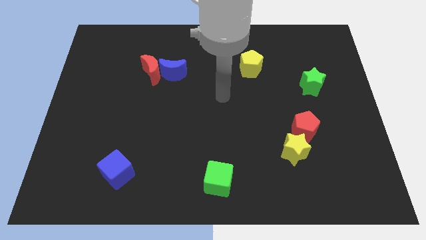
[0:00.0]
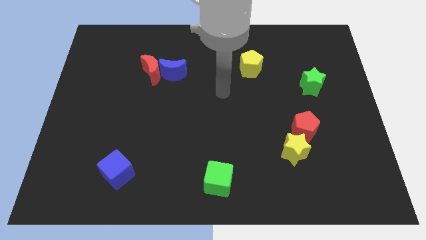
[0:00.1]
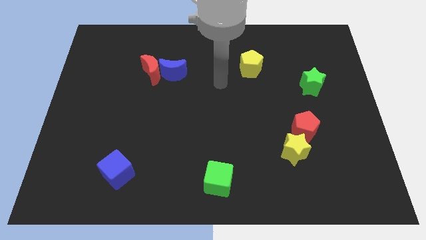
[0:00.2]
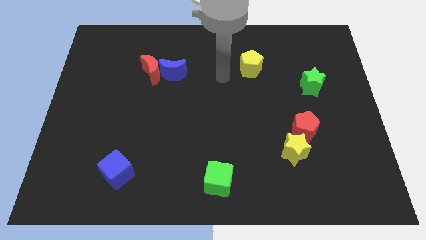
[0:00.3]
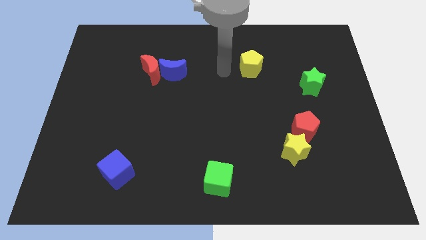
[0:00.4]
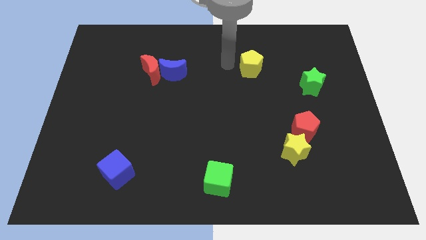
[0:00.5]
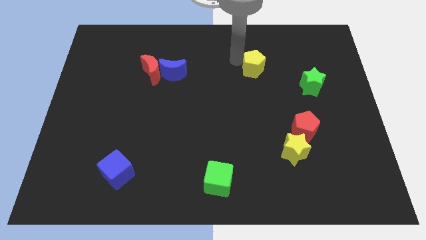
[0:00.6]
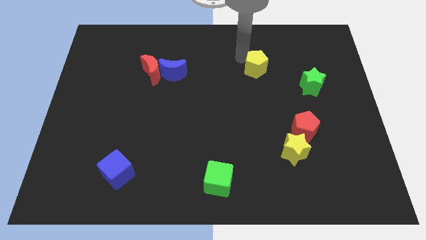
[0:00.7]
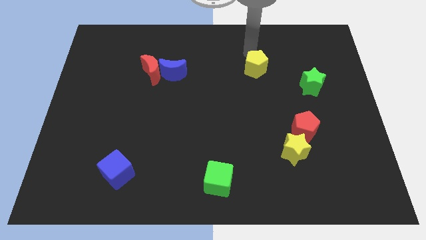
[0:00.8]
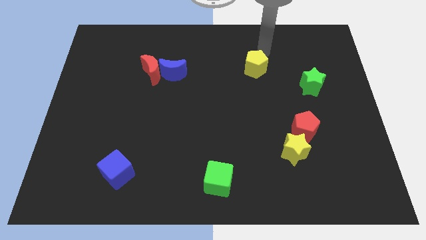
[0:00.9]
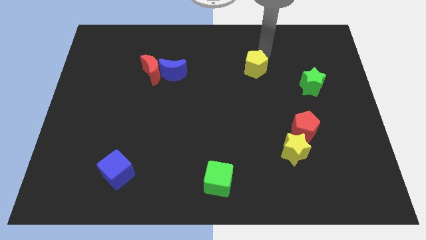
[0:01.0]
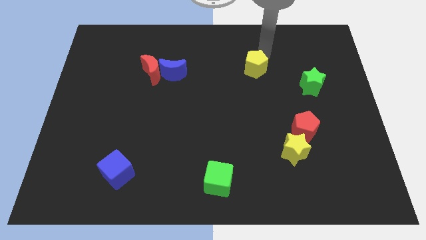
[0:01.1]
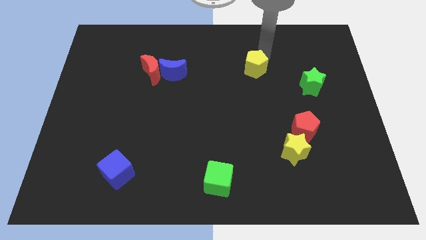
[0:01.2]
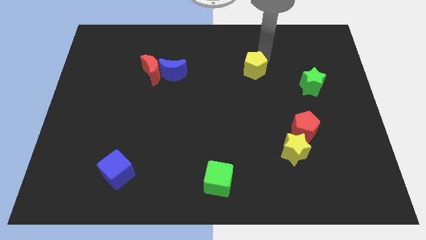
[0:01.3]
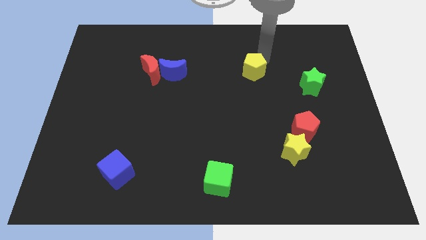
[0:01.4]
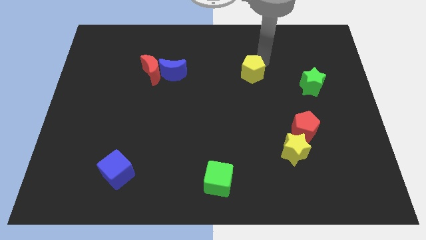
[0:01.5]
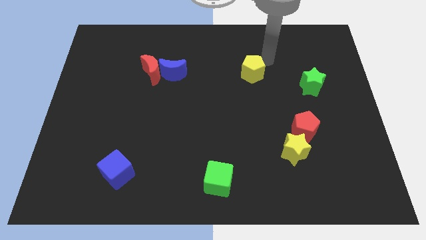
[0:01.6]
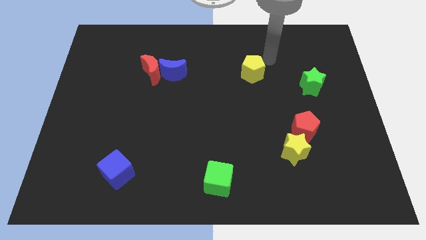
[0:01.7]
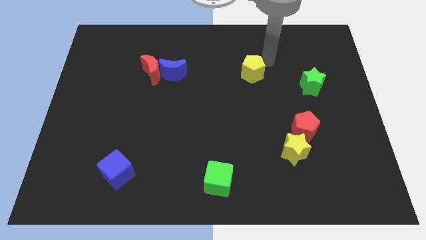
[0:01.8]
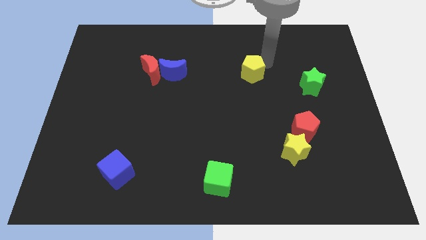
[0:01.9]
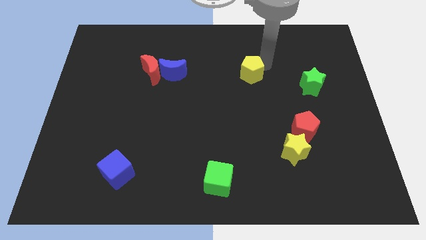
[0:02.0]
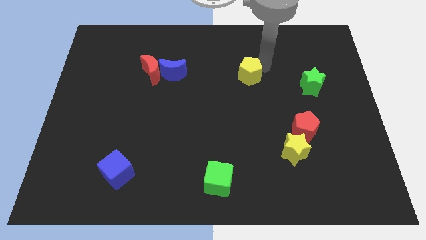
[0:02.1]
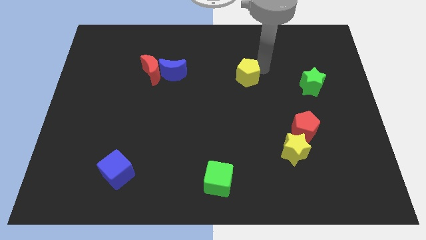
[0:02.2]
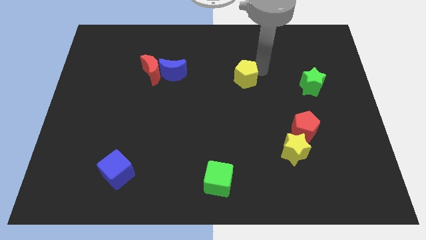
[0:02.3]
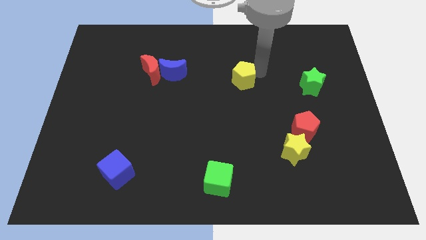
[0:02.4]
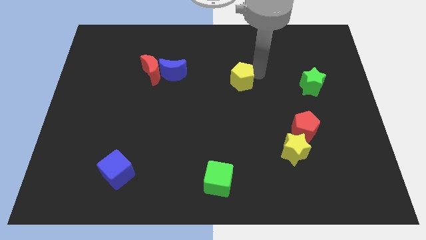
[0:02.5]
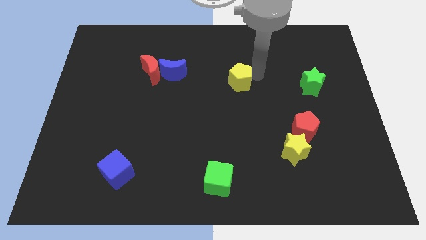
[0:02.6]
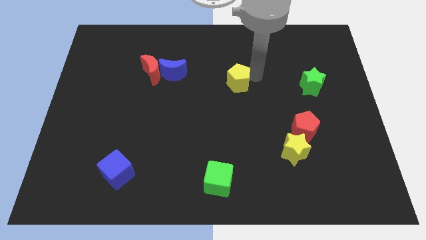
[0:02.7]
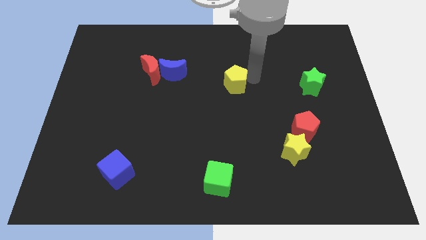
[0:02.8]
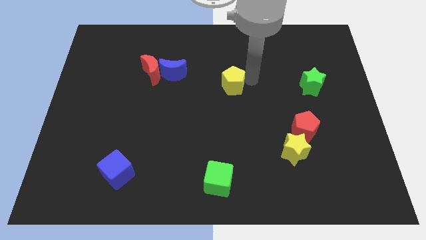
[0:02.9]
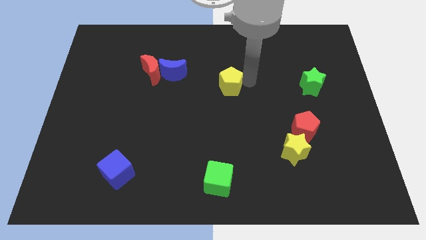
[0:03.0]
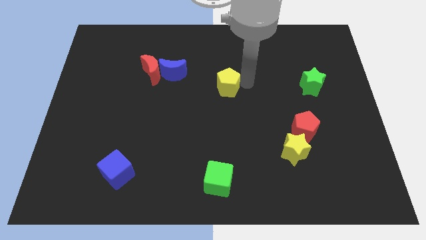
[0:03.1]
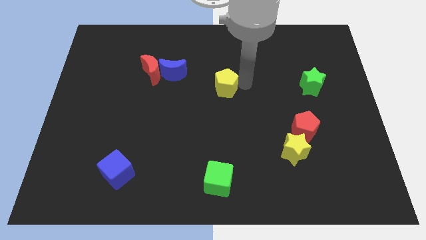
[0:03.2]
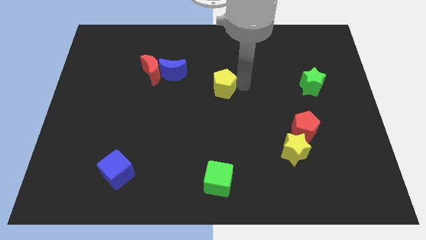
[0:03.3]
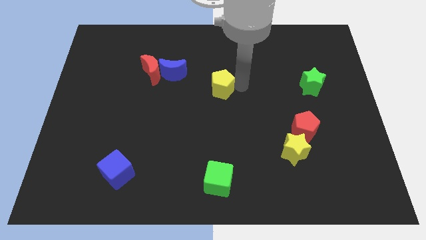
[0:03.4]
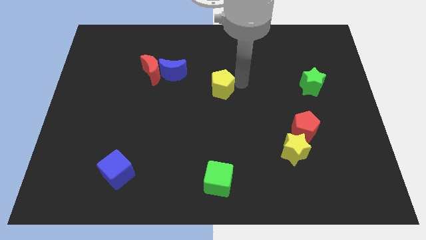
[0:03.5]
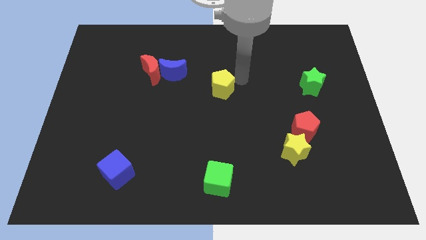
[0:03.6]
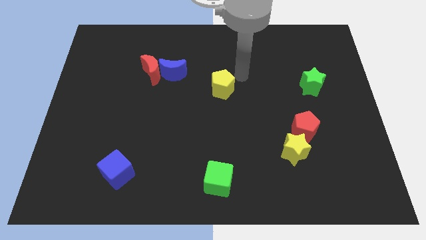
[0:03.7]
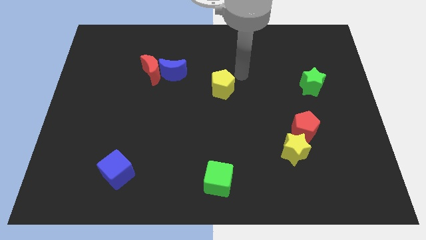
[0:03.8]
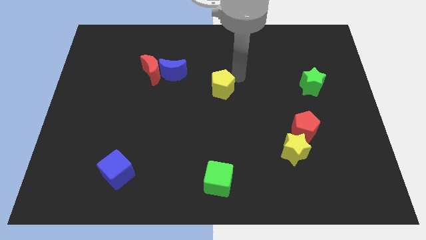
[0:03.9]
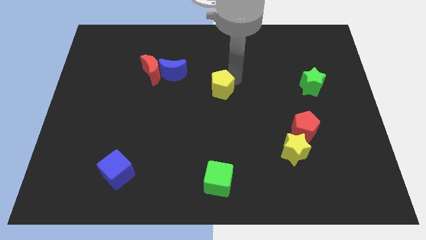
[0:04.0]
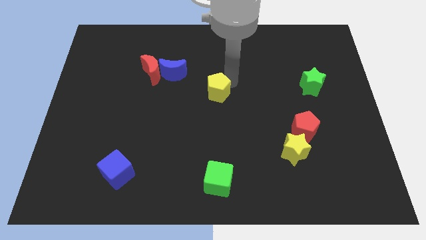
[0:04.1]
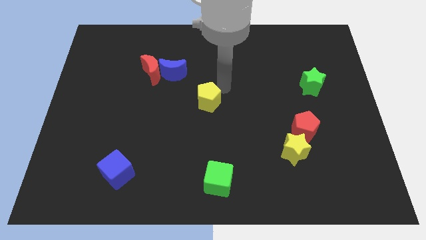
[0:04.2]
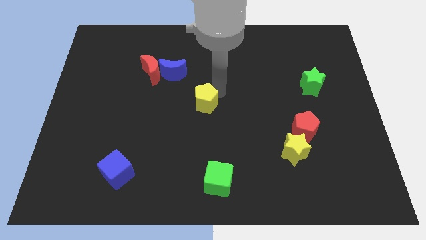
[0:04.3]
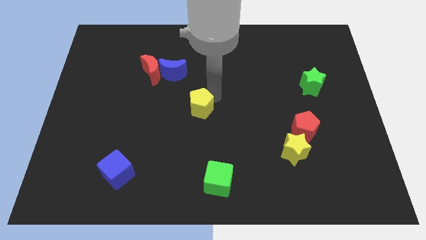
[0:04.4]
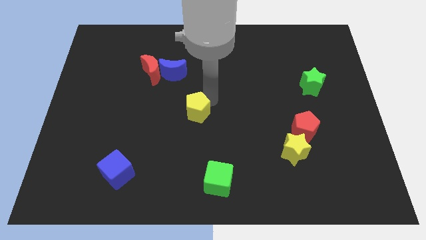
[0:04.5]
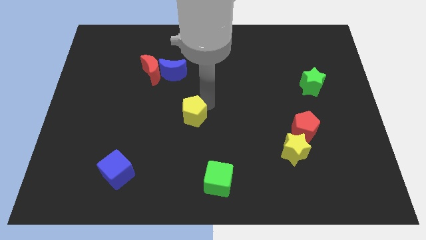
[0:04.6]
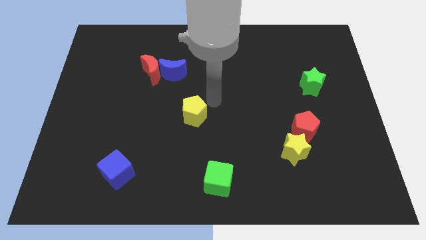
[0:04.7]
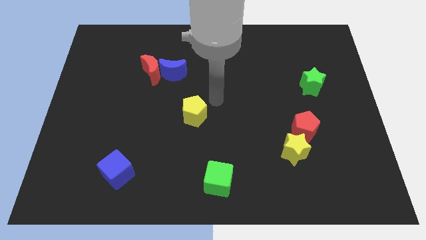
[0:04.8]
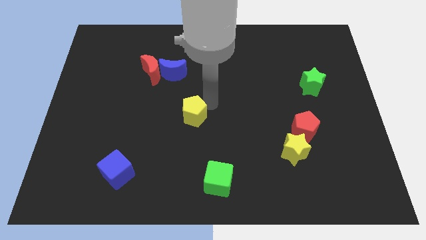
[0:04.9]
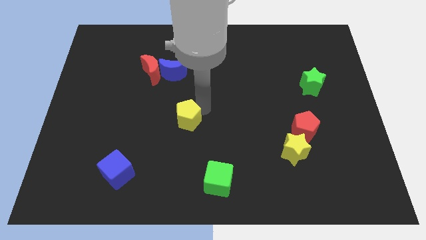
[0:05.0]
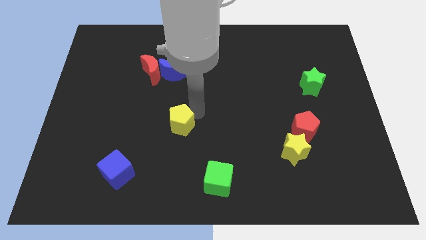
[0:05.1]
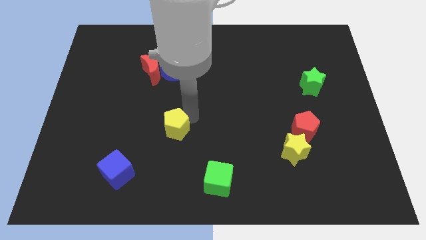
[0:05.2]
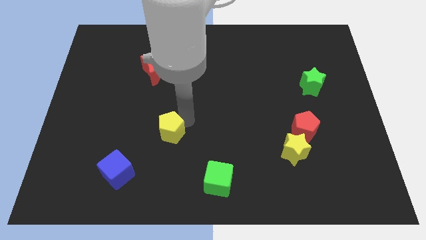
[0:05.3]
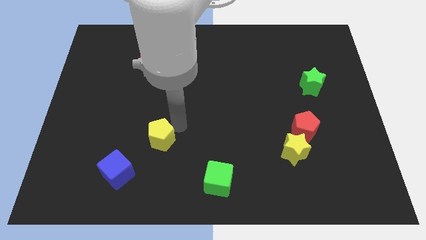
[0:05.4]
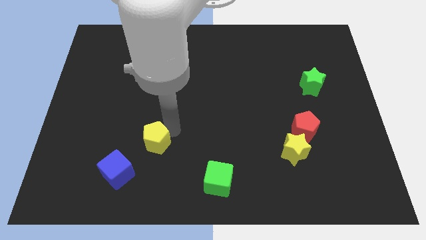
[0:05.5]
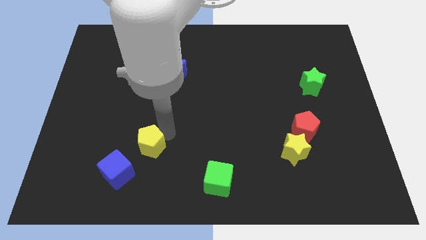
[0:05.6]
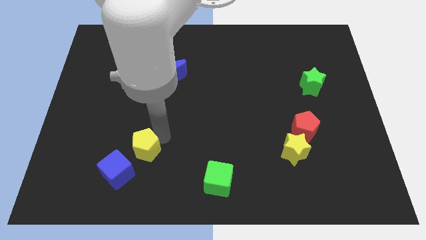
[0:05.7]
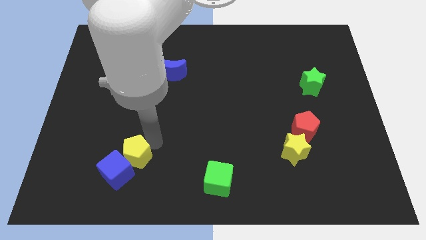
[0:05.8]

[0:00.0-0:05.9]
slide the yellow pentagon close to the blue cube

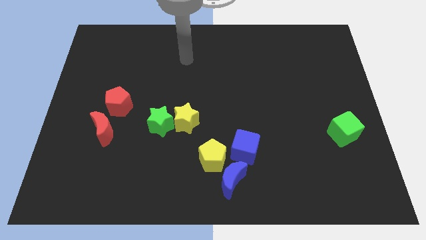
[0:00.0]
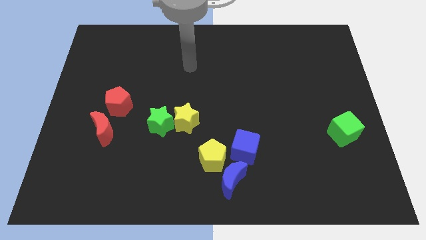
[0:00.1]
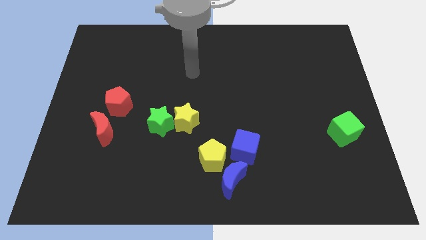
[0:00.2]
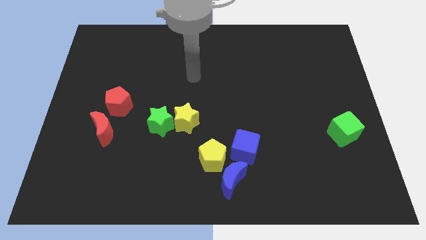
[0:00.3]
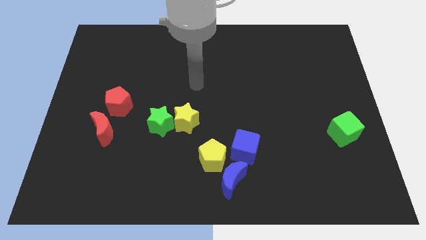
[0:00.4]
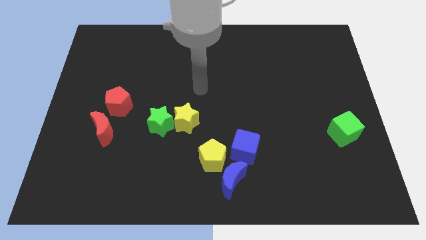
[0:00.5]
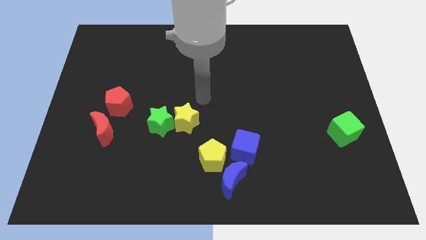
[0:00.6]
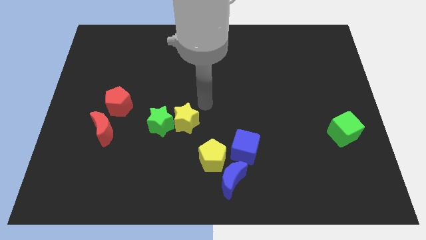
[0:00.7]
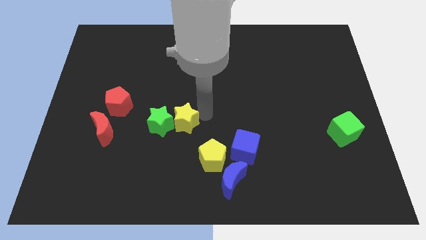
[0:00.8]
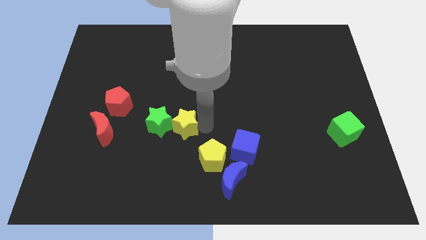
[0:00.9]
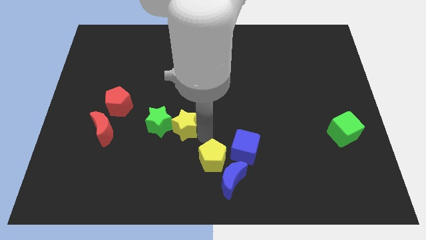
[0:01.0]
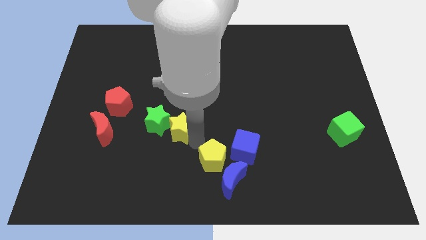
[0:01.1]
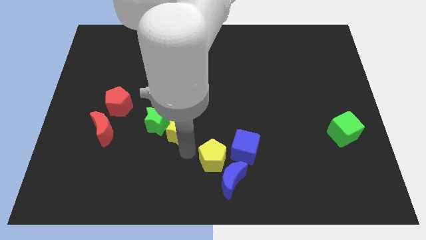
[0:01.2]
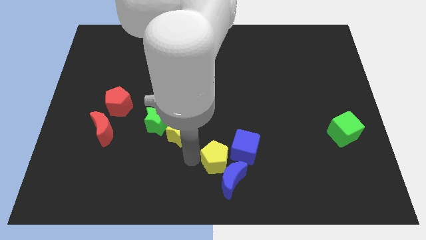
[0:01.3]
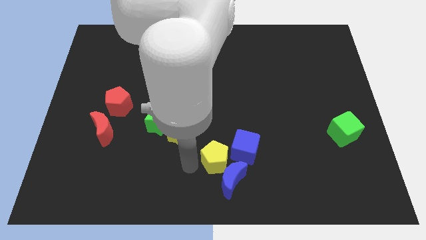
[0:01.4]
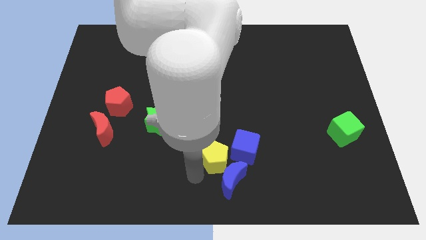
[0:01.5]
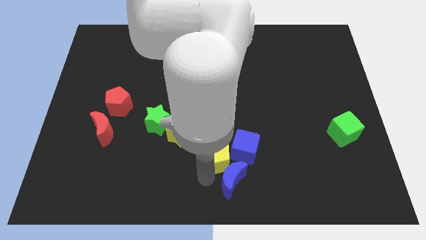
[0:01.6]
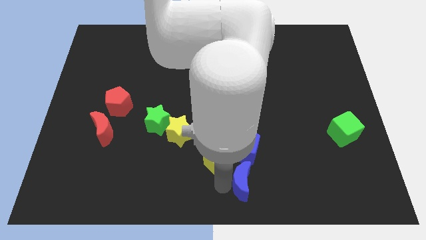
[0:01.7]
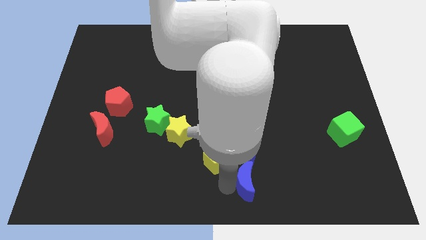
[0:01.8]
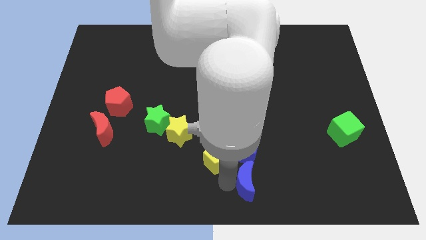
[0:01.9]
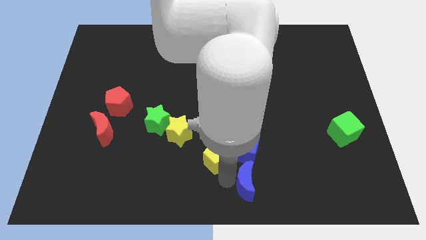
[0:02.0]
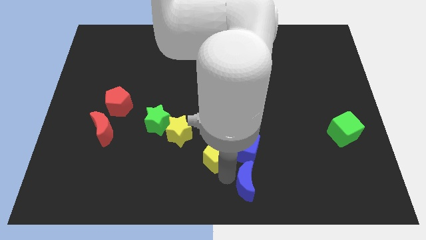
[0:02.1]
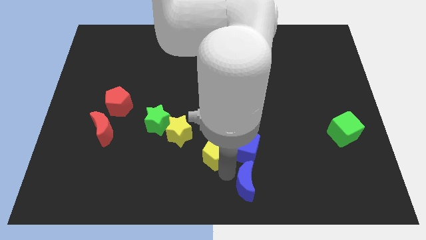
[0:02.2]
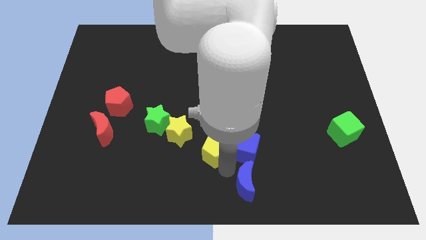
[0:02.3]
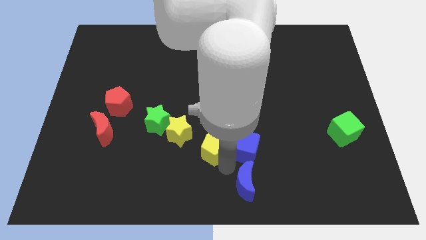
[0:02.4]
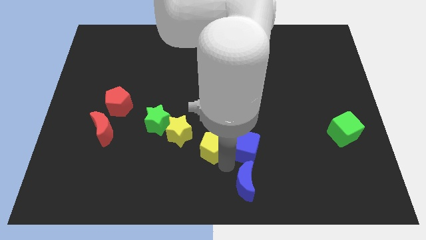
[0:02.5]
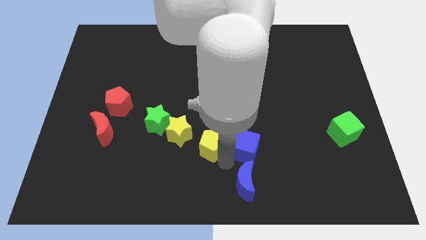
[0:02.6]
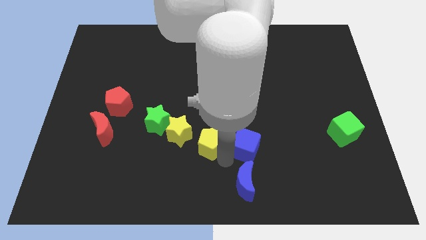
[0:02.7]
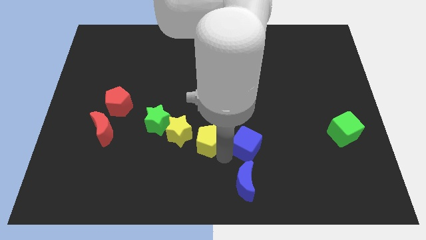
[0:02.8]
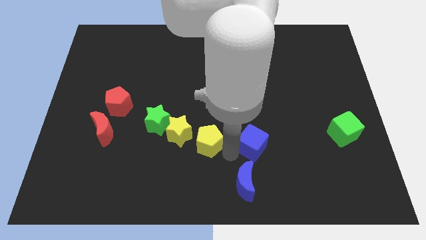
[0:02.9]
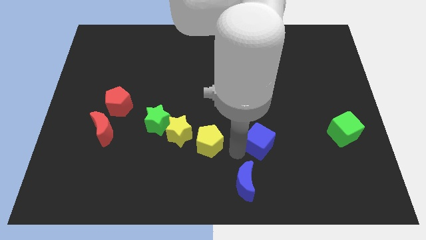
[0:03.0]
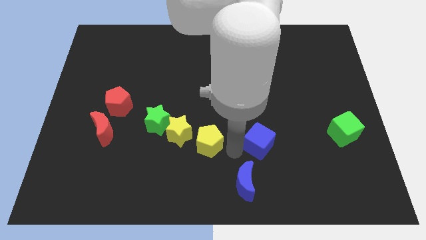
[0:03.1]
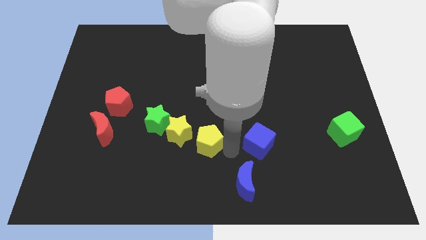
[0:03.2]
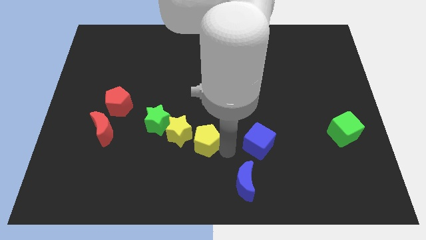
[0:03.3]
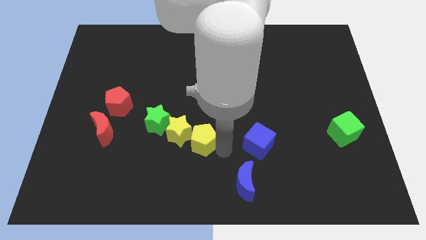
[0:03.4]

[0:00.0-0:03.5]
slide the yellow pentagon towards the yellow star
